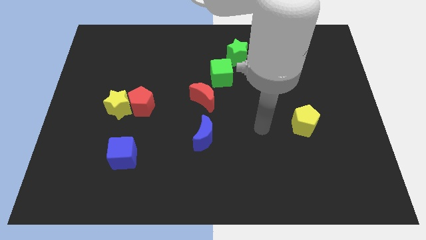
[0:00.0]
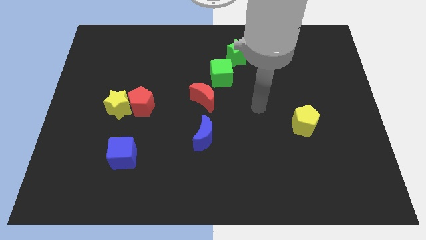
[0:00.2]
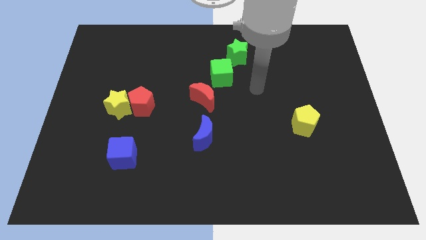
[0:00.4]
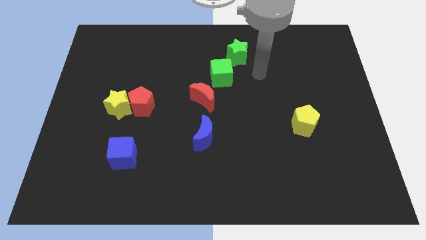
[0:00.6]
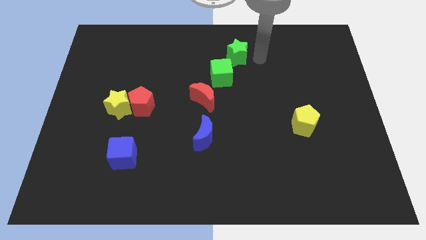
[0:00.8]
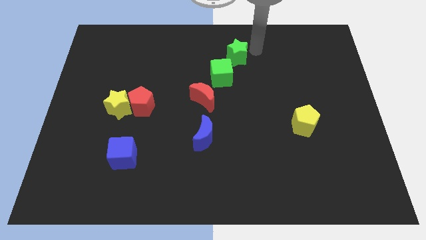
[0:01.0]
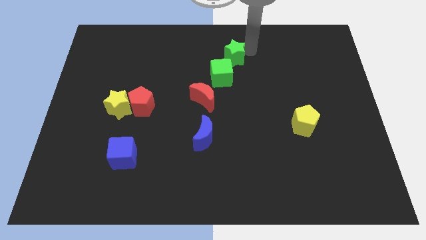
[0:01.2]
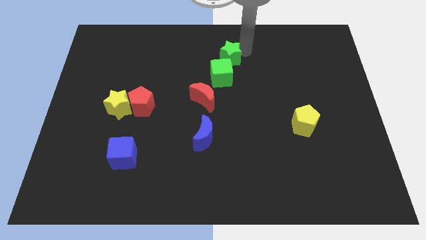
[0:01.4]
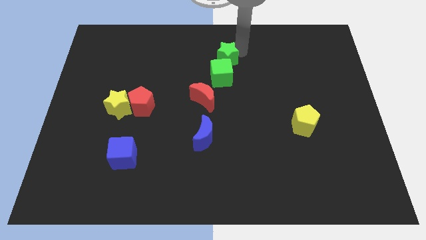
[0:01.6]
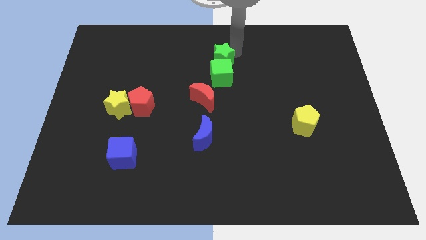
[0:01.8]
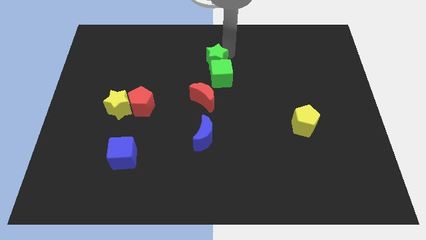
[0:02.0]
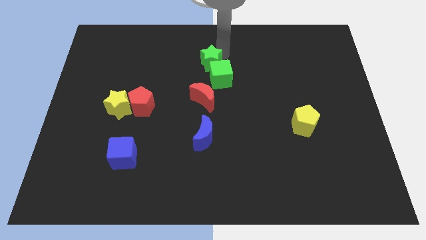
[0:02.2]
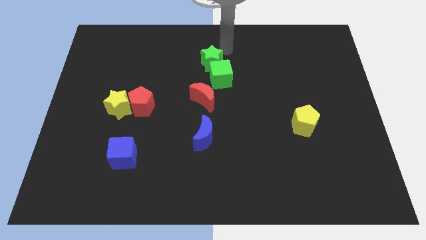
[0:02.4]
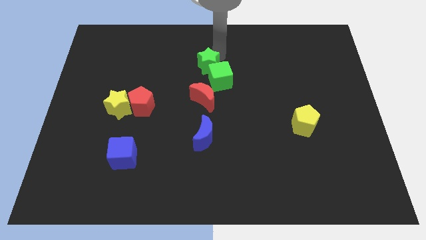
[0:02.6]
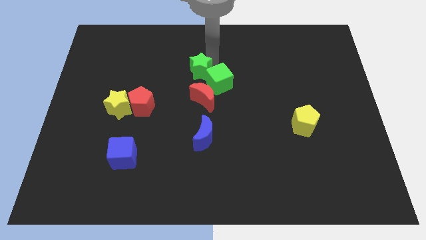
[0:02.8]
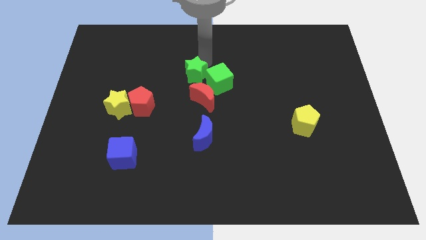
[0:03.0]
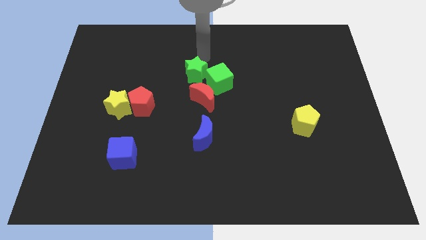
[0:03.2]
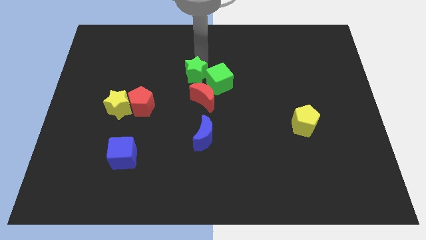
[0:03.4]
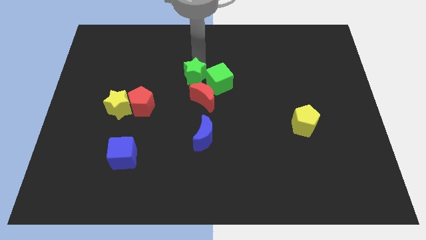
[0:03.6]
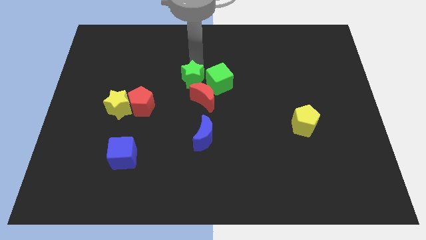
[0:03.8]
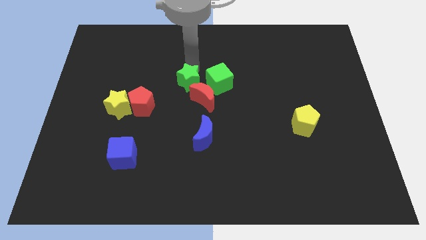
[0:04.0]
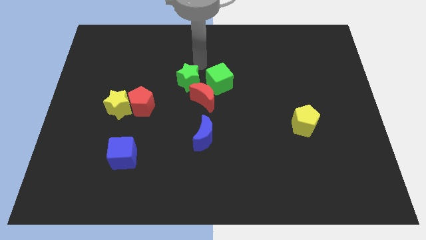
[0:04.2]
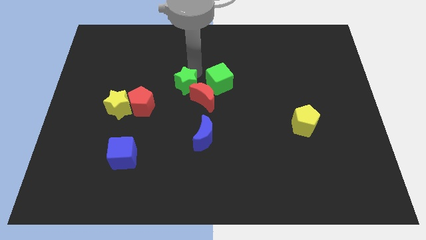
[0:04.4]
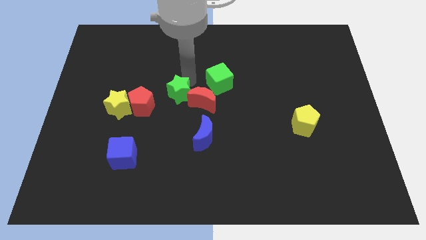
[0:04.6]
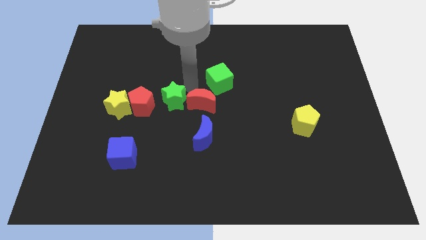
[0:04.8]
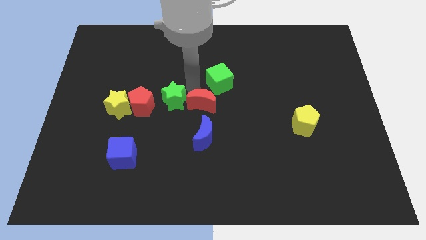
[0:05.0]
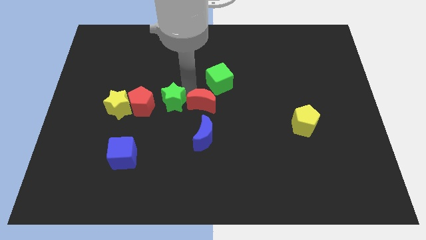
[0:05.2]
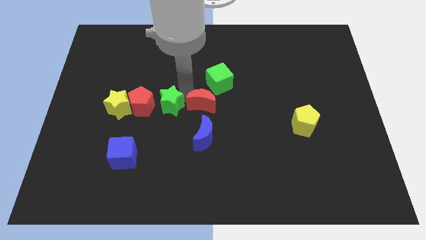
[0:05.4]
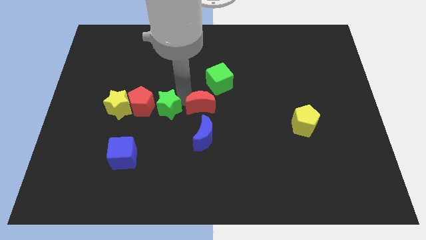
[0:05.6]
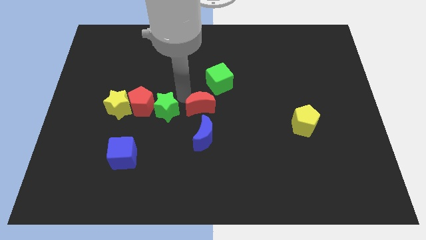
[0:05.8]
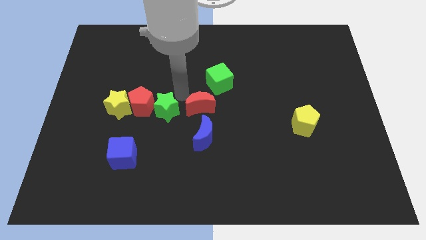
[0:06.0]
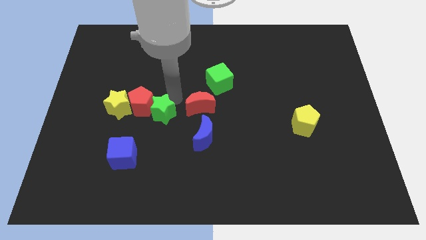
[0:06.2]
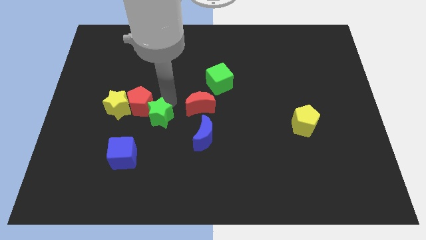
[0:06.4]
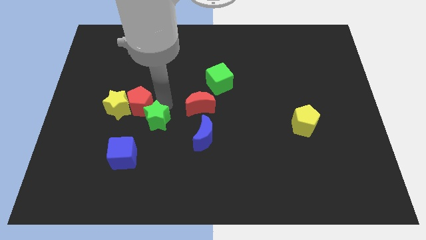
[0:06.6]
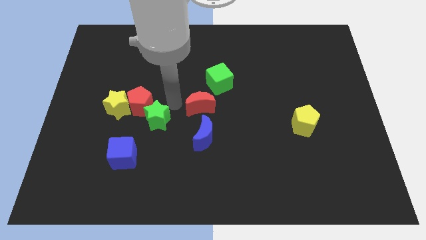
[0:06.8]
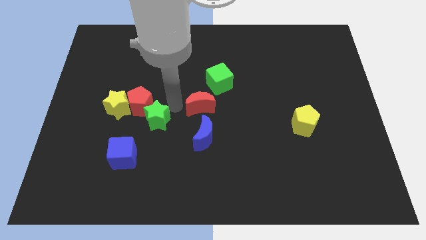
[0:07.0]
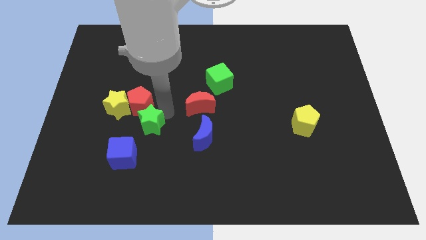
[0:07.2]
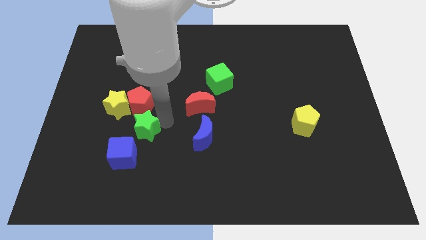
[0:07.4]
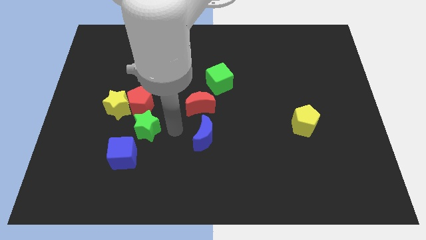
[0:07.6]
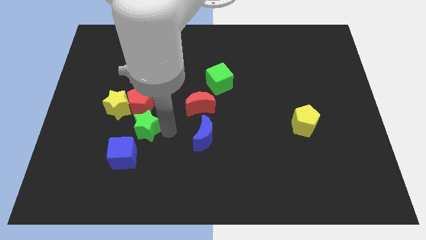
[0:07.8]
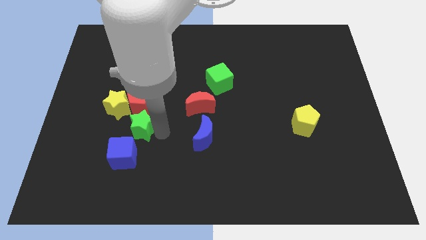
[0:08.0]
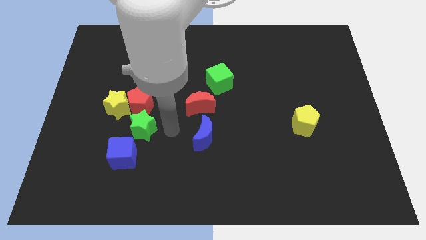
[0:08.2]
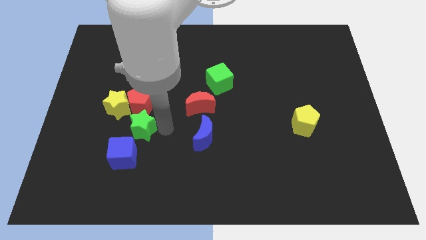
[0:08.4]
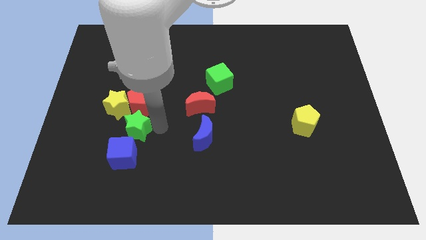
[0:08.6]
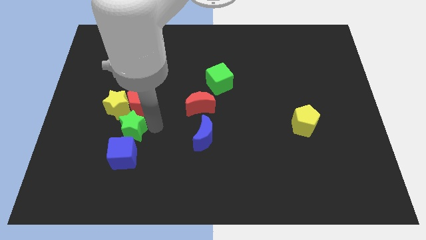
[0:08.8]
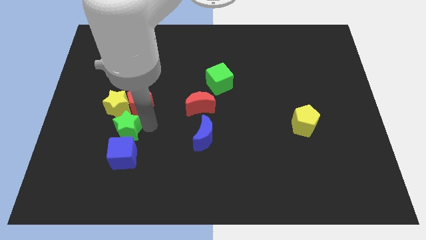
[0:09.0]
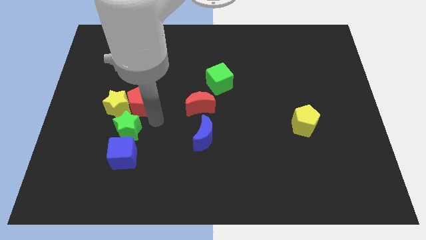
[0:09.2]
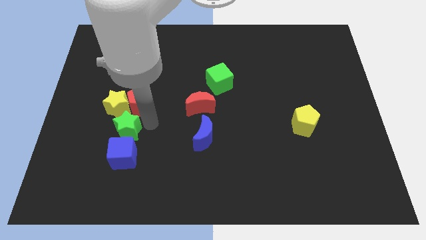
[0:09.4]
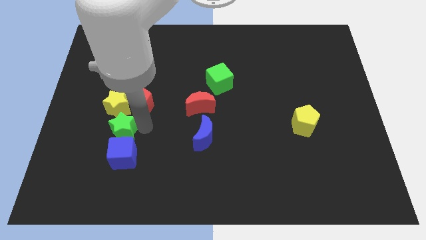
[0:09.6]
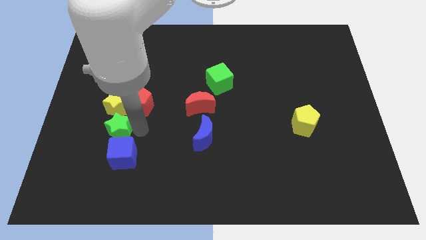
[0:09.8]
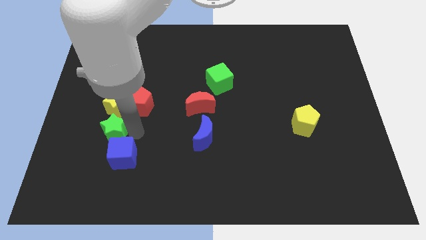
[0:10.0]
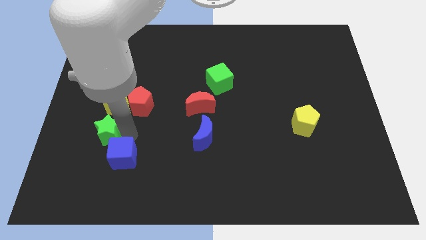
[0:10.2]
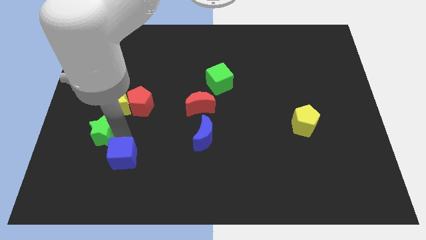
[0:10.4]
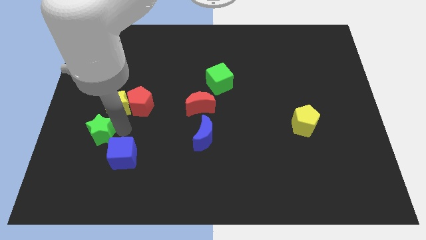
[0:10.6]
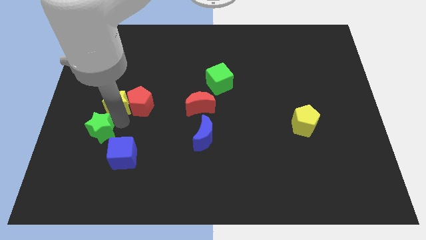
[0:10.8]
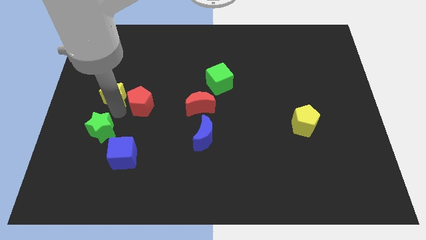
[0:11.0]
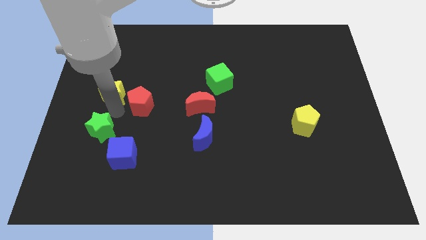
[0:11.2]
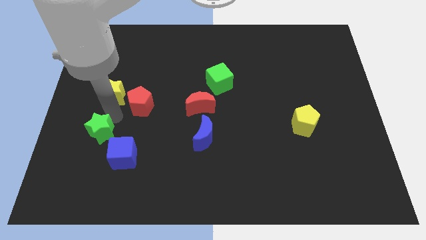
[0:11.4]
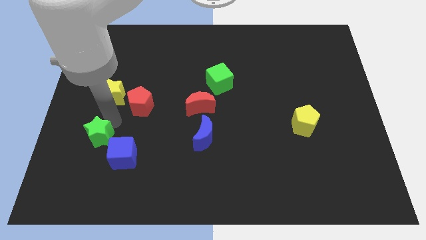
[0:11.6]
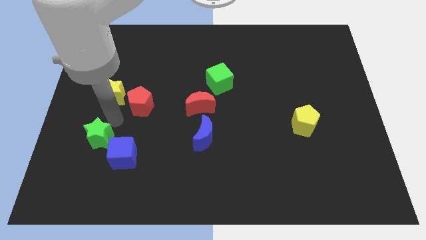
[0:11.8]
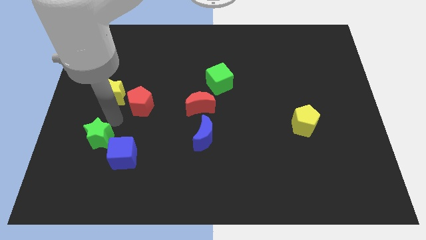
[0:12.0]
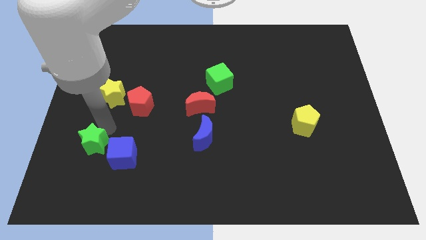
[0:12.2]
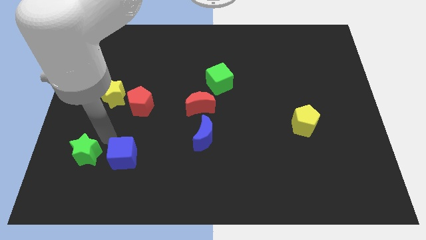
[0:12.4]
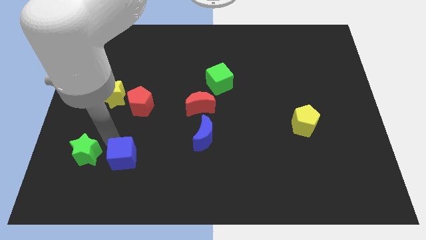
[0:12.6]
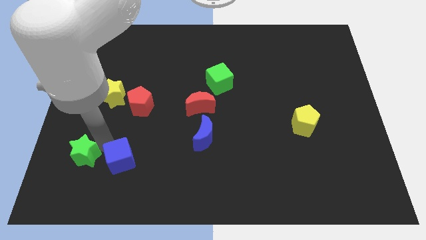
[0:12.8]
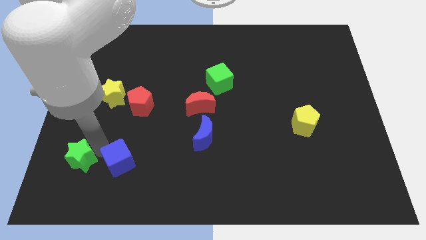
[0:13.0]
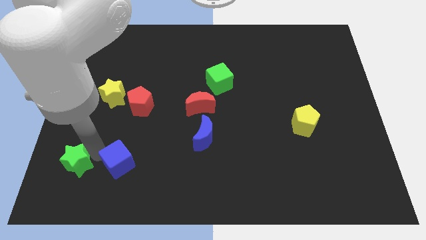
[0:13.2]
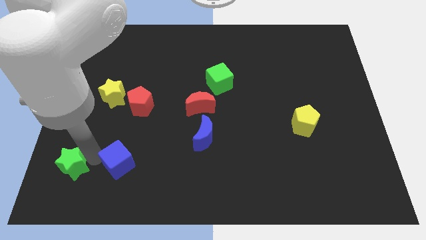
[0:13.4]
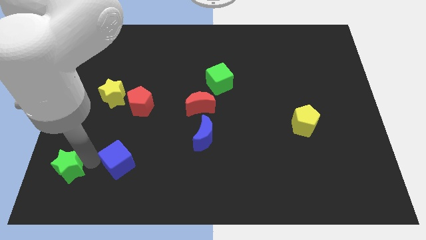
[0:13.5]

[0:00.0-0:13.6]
push the green star to the bottom left
